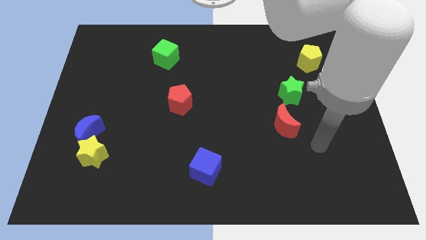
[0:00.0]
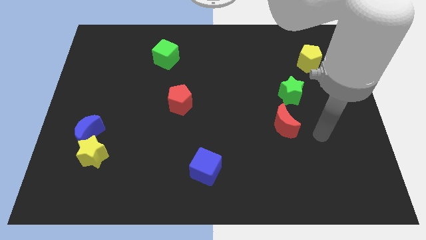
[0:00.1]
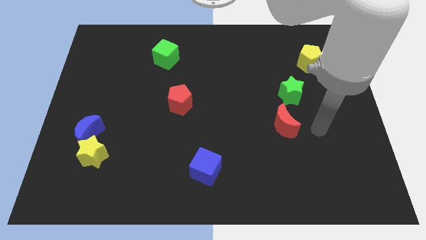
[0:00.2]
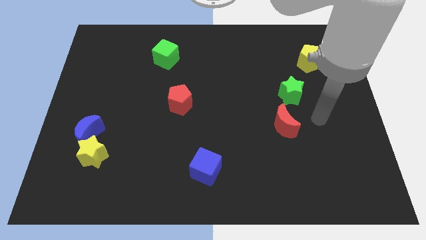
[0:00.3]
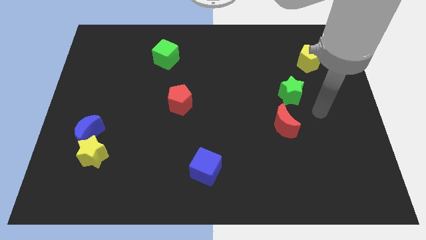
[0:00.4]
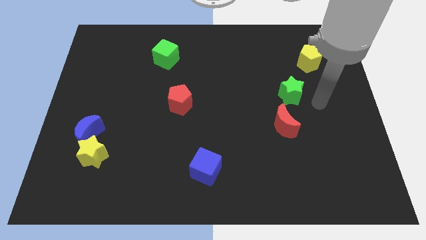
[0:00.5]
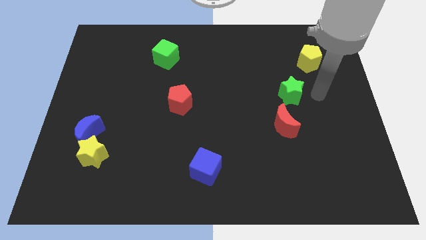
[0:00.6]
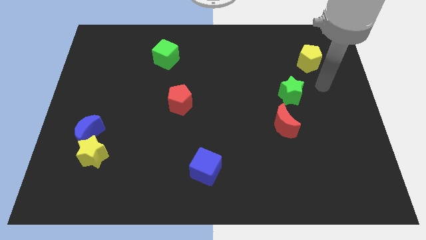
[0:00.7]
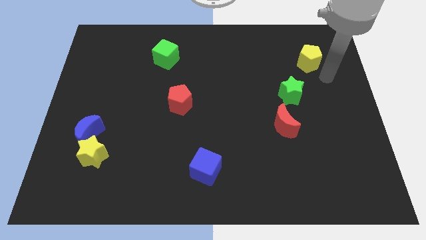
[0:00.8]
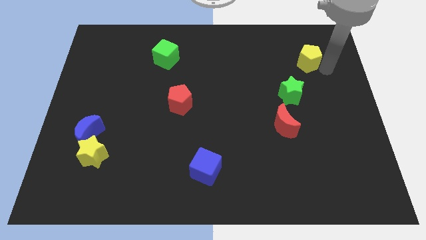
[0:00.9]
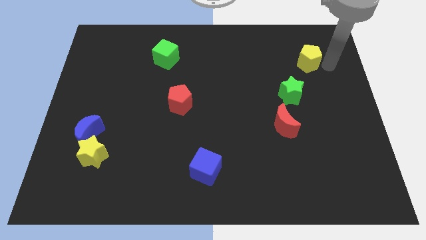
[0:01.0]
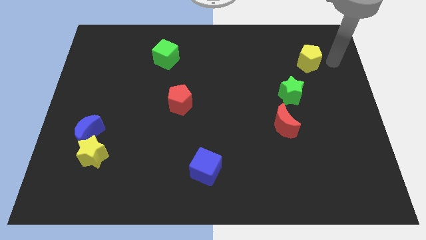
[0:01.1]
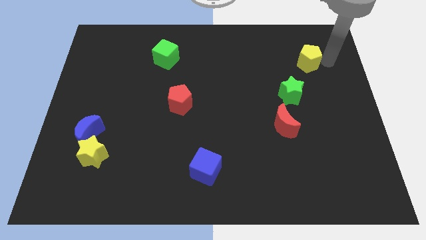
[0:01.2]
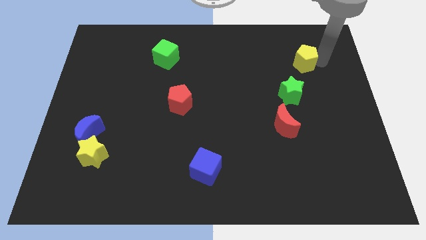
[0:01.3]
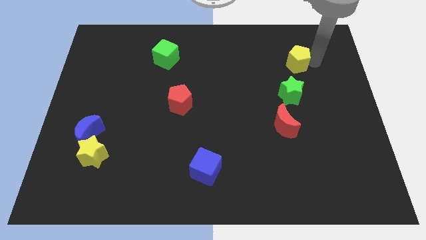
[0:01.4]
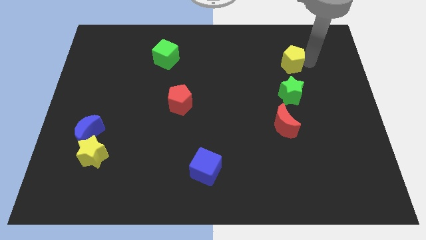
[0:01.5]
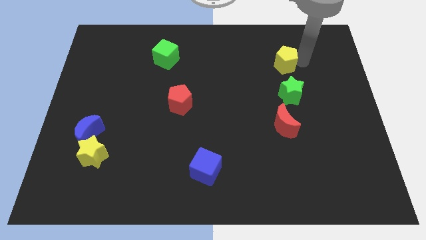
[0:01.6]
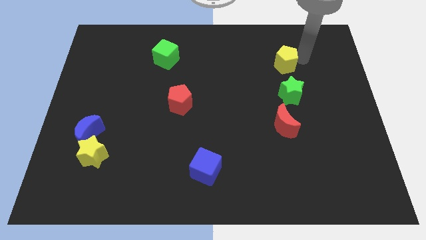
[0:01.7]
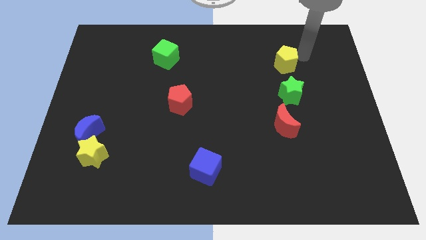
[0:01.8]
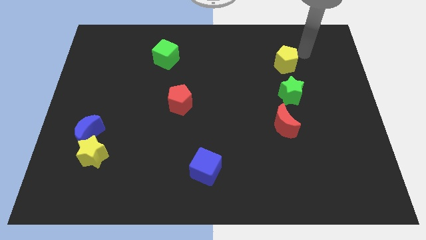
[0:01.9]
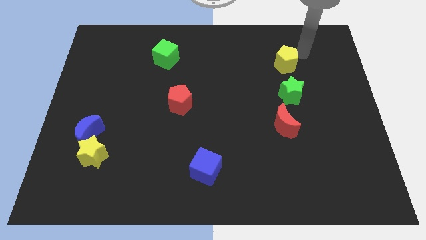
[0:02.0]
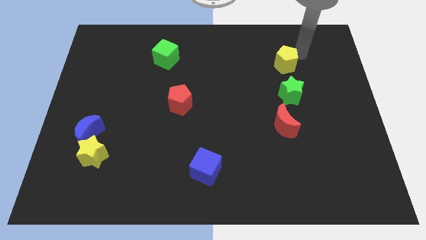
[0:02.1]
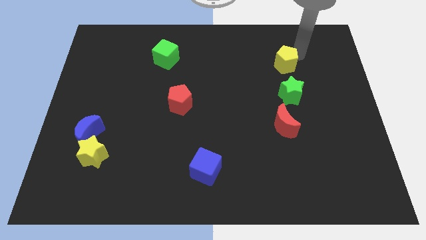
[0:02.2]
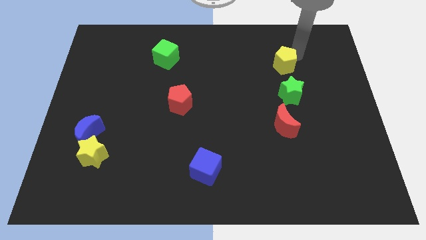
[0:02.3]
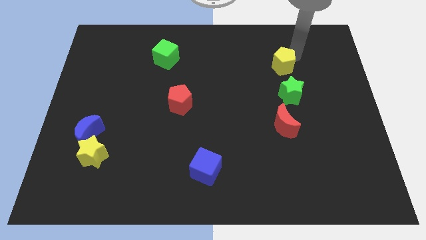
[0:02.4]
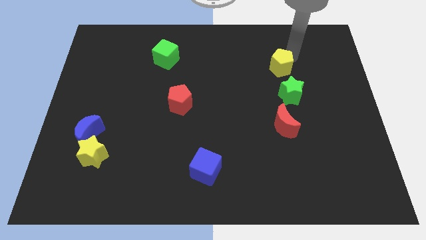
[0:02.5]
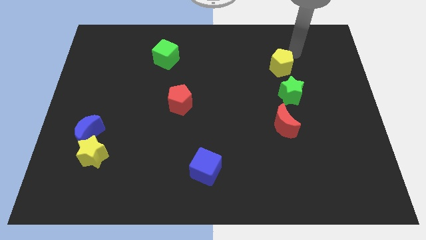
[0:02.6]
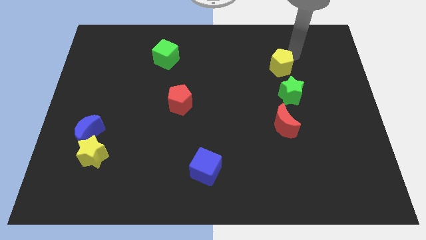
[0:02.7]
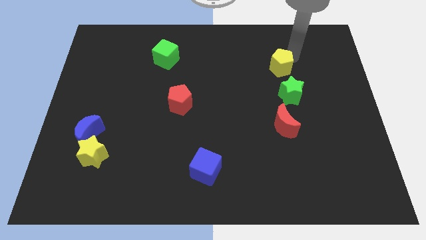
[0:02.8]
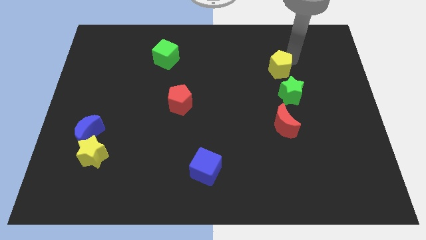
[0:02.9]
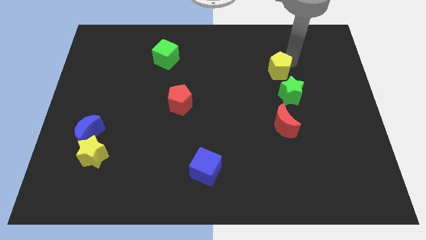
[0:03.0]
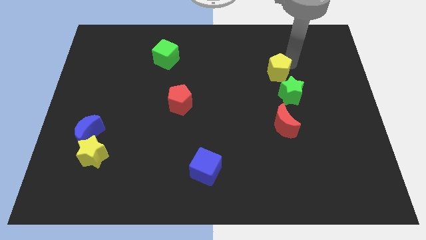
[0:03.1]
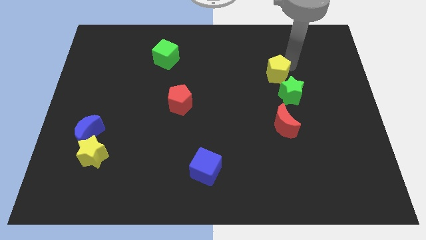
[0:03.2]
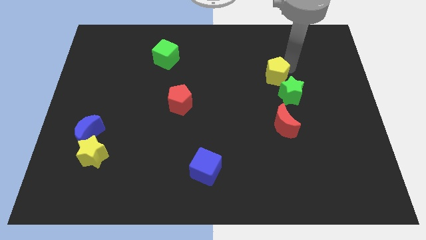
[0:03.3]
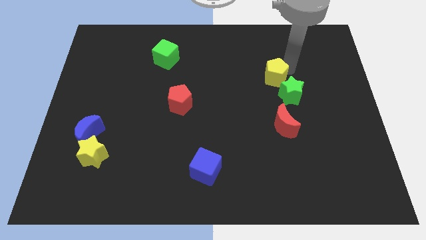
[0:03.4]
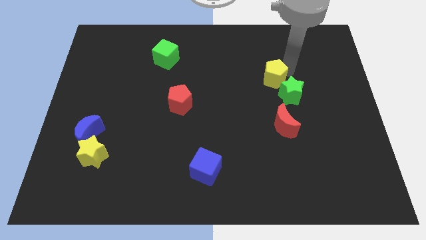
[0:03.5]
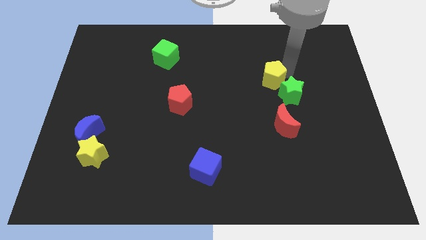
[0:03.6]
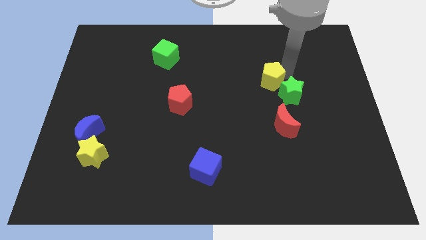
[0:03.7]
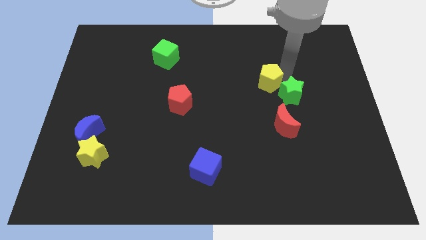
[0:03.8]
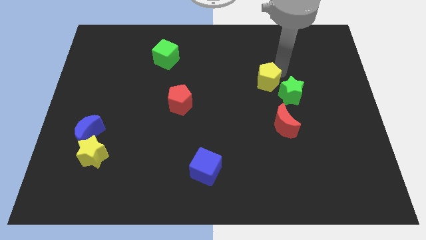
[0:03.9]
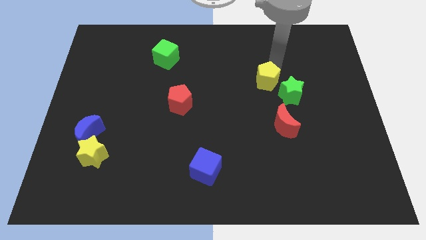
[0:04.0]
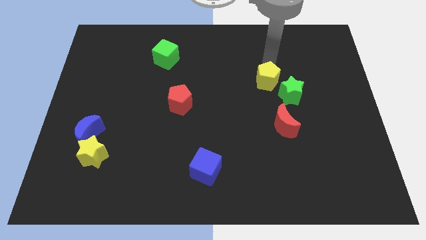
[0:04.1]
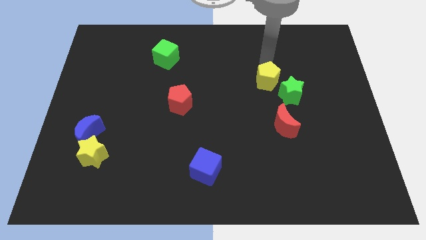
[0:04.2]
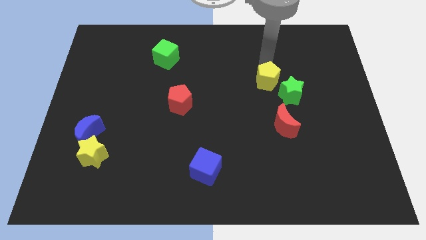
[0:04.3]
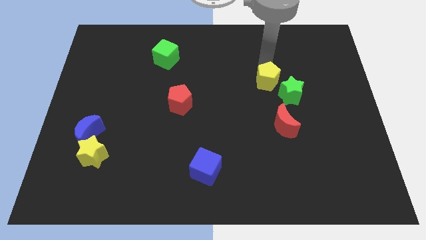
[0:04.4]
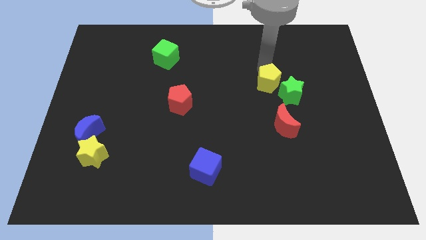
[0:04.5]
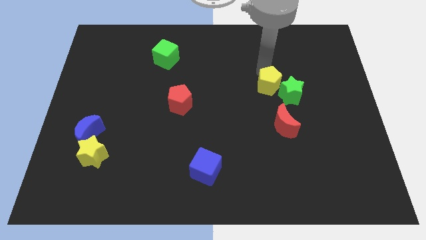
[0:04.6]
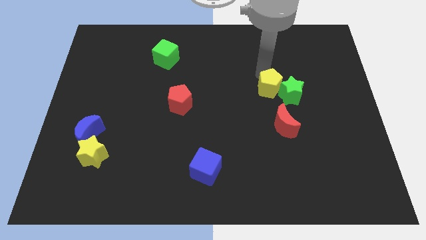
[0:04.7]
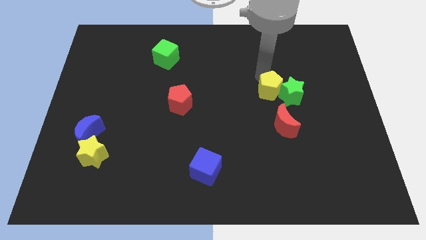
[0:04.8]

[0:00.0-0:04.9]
move the yellow pentagon to the bottom left of the green star

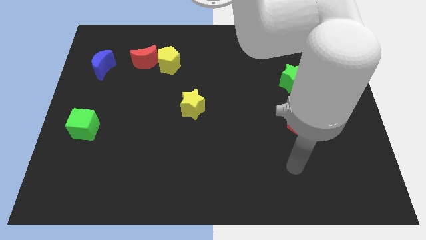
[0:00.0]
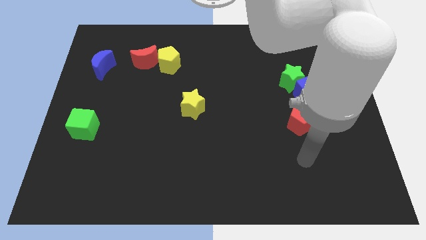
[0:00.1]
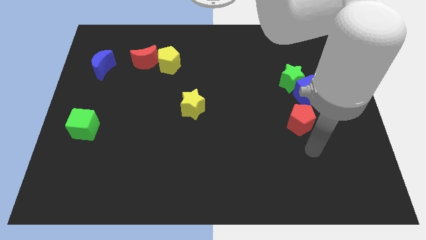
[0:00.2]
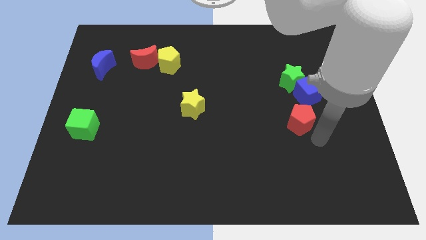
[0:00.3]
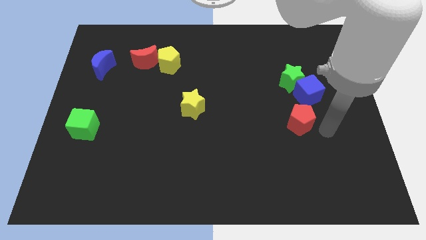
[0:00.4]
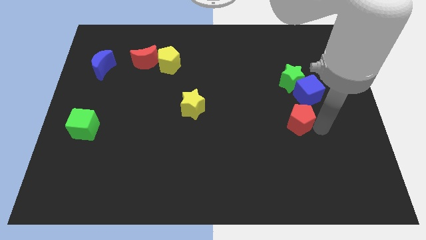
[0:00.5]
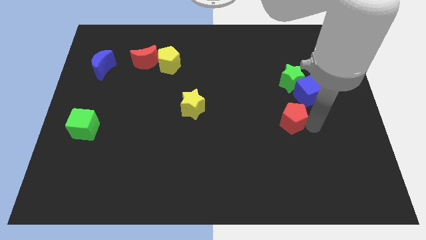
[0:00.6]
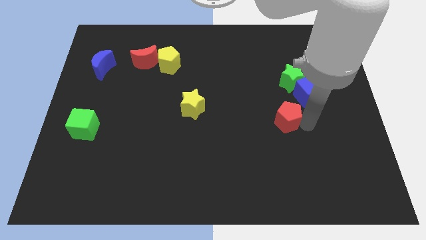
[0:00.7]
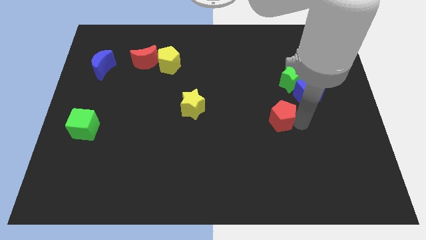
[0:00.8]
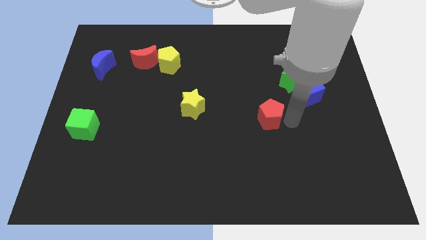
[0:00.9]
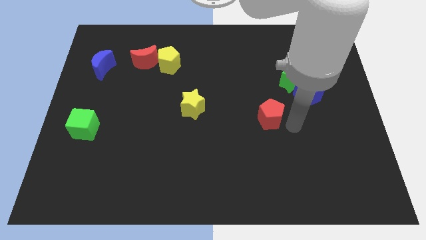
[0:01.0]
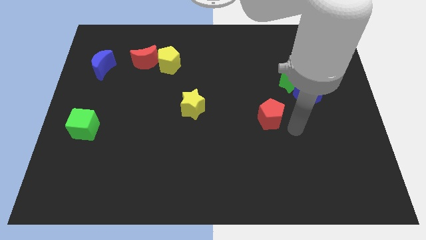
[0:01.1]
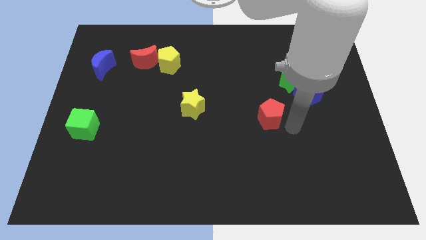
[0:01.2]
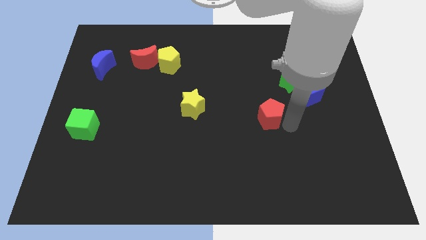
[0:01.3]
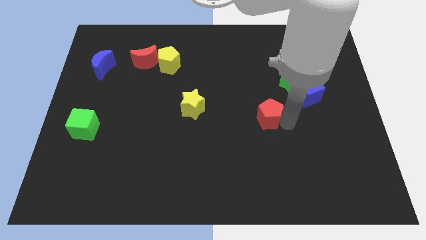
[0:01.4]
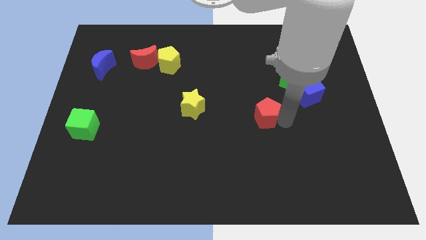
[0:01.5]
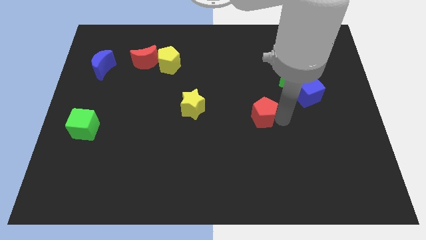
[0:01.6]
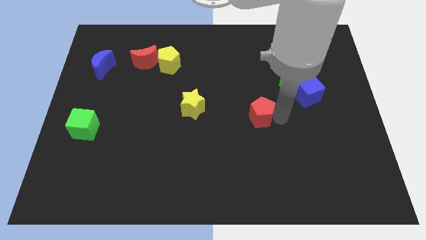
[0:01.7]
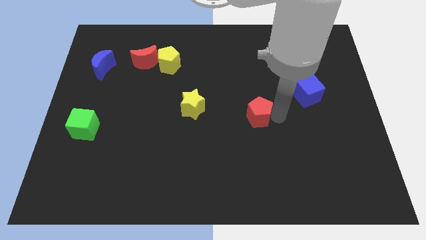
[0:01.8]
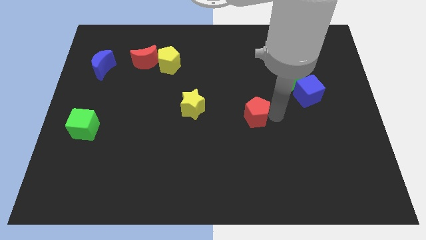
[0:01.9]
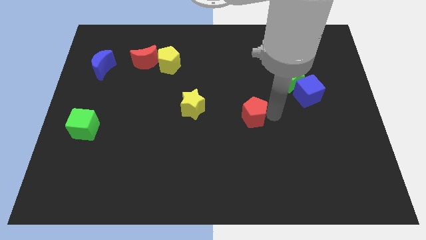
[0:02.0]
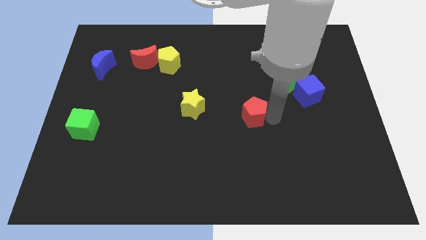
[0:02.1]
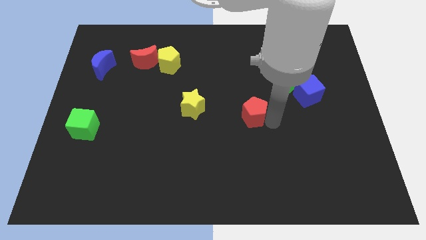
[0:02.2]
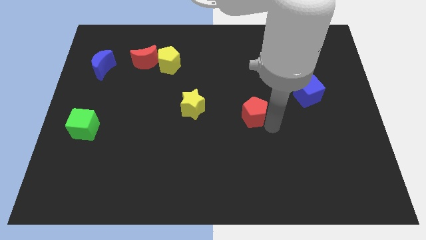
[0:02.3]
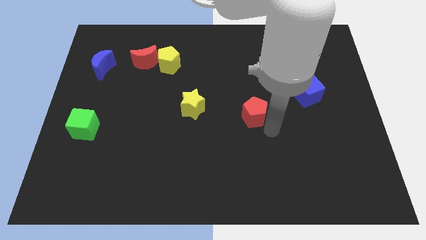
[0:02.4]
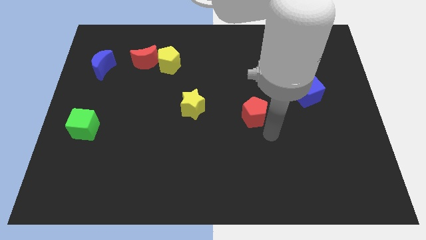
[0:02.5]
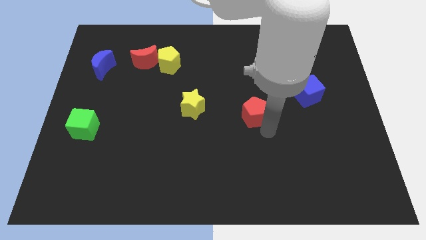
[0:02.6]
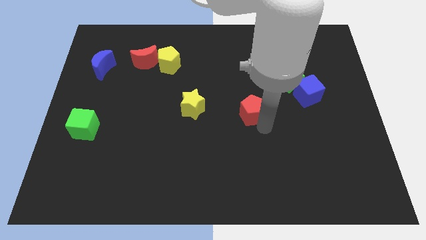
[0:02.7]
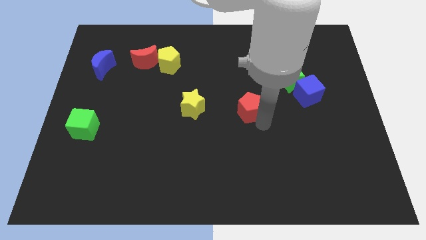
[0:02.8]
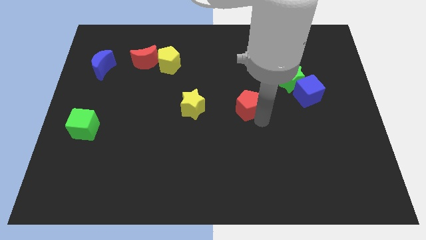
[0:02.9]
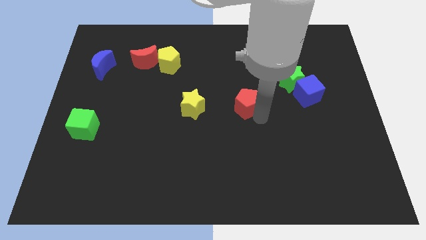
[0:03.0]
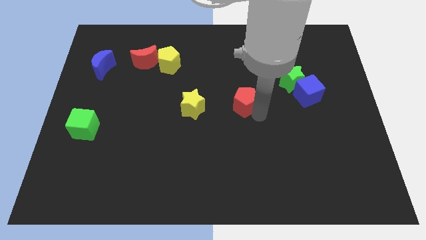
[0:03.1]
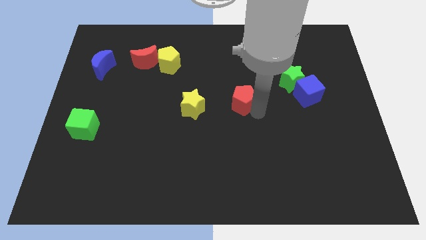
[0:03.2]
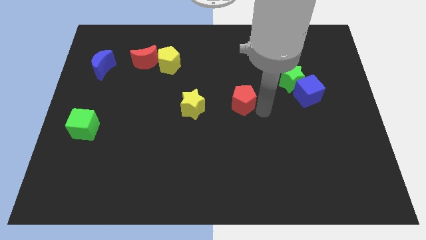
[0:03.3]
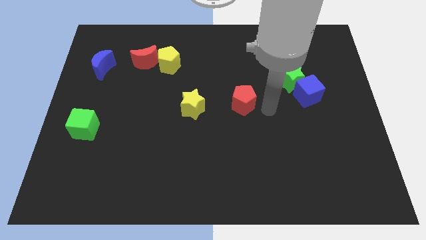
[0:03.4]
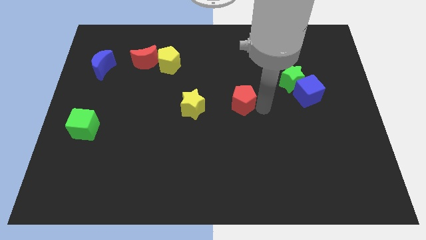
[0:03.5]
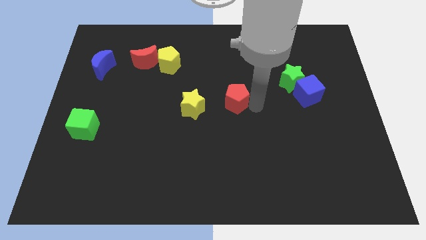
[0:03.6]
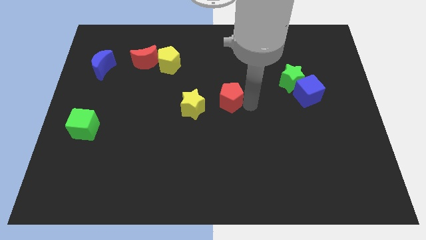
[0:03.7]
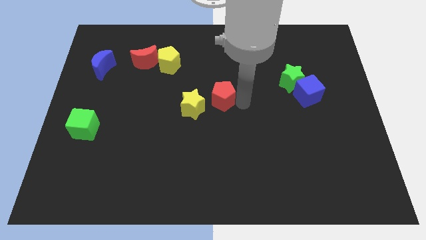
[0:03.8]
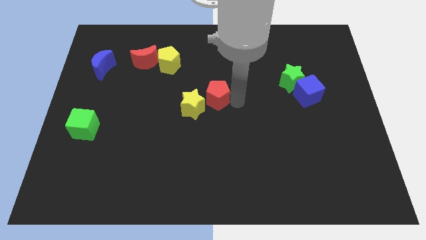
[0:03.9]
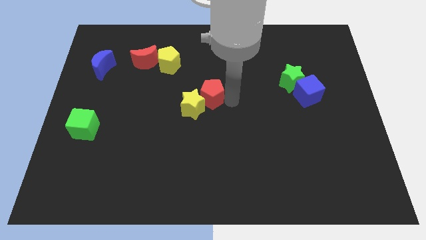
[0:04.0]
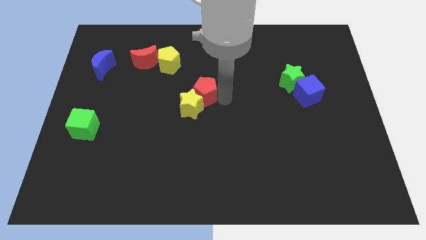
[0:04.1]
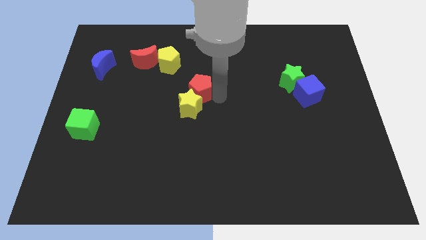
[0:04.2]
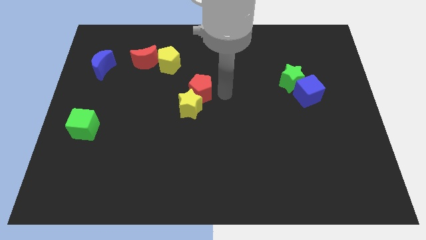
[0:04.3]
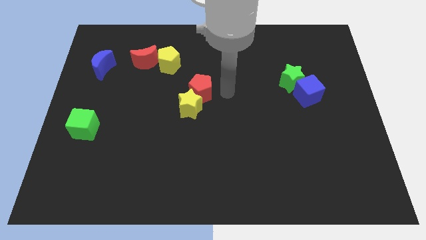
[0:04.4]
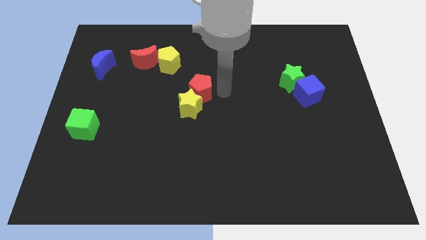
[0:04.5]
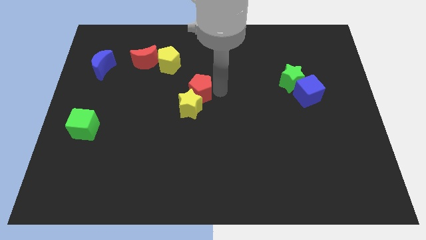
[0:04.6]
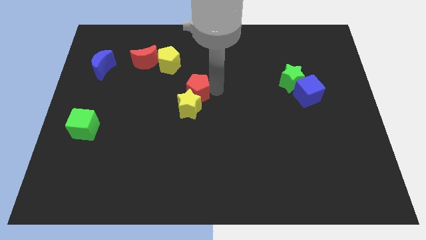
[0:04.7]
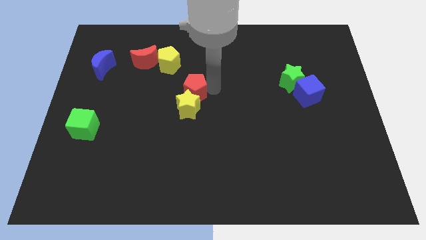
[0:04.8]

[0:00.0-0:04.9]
put the red pentagon to the top left of the yellow star
